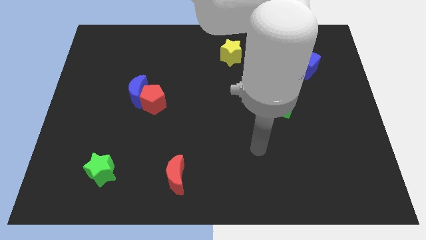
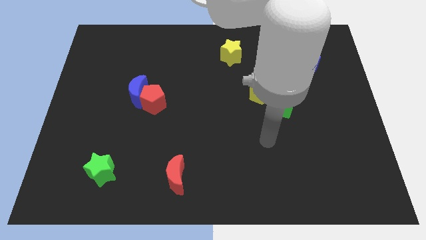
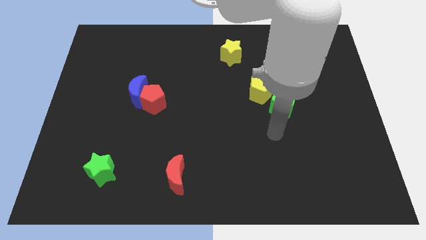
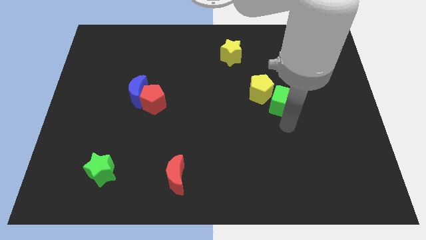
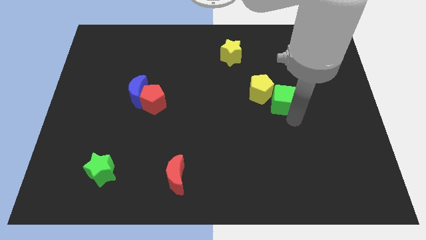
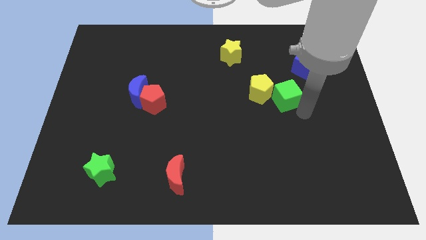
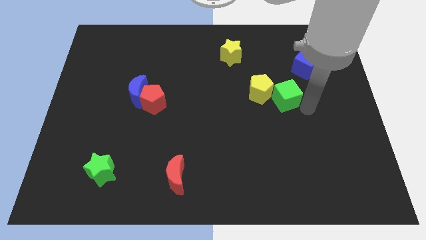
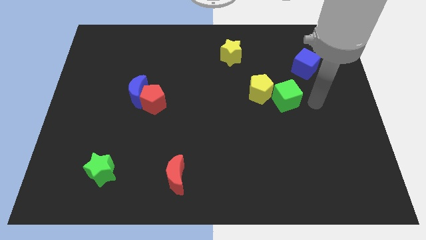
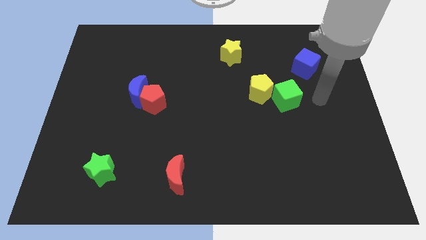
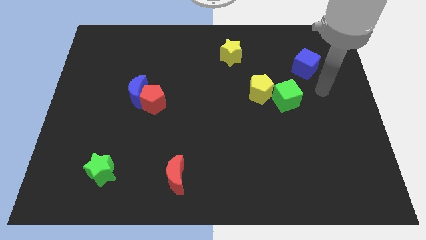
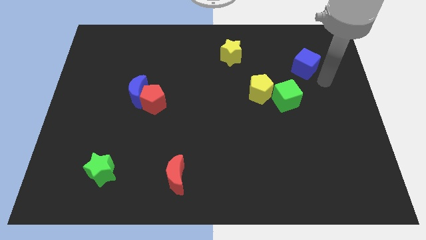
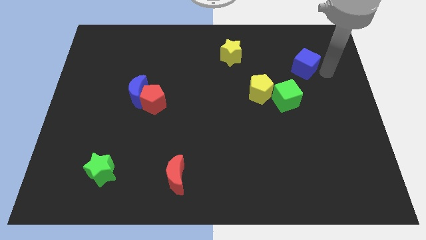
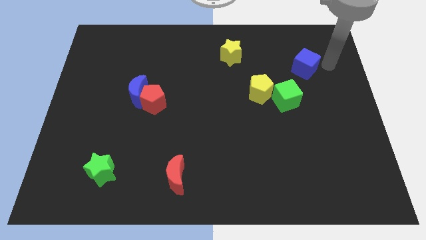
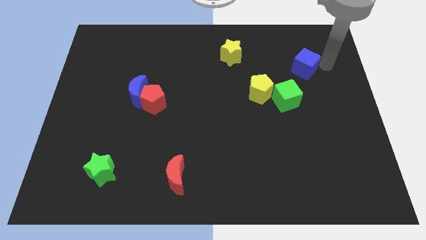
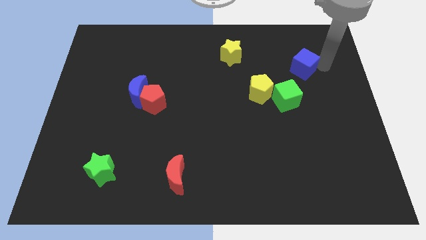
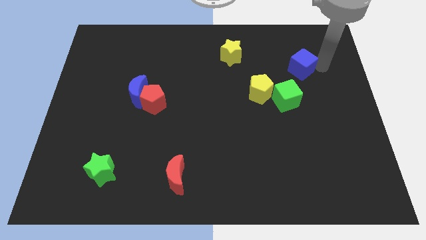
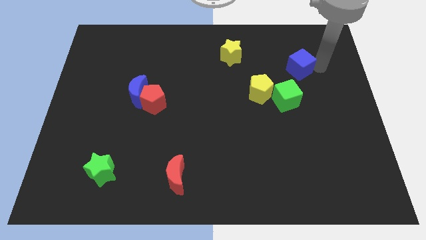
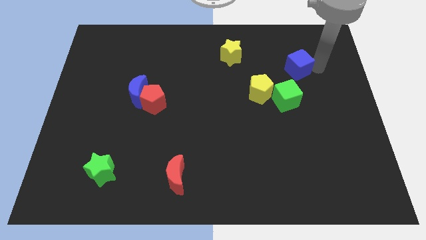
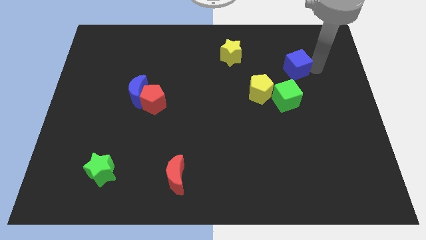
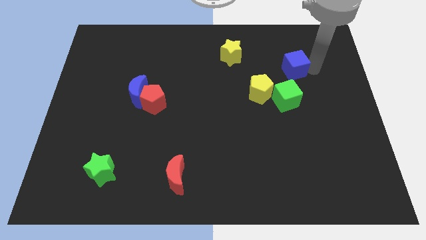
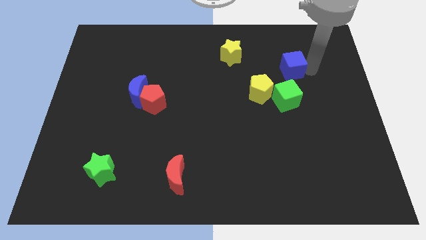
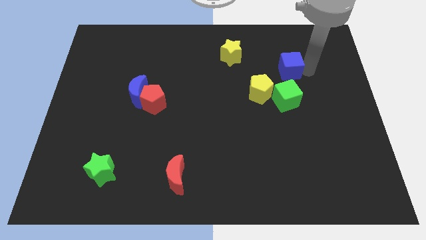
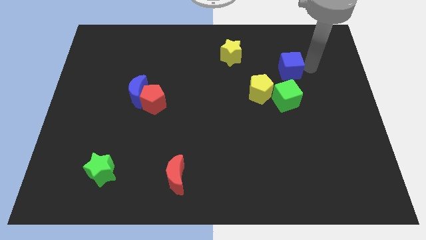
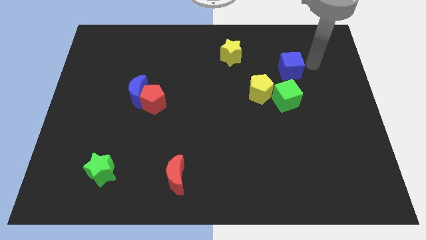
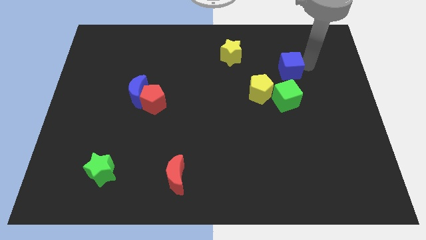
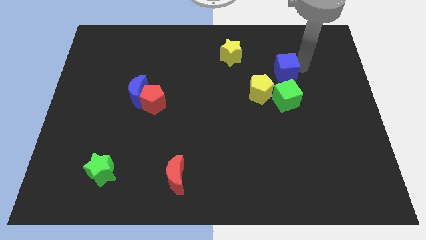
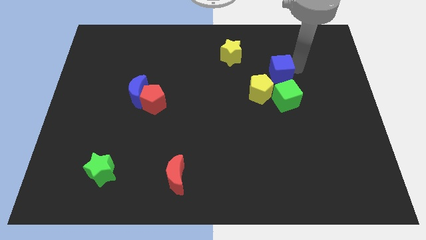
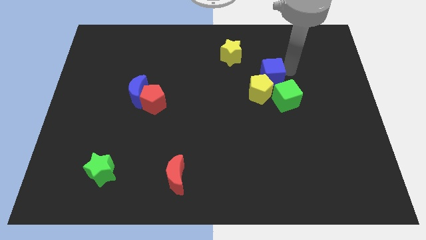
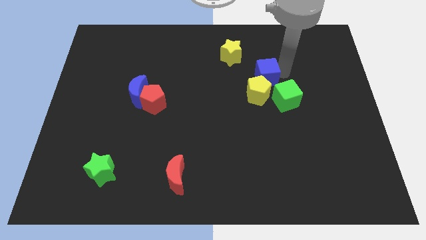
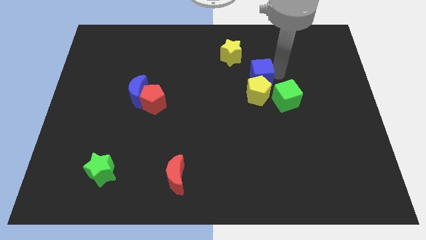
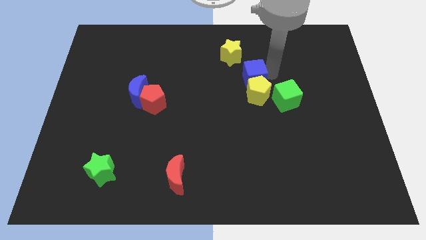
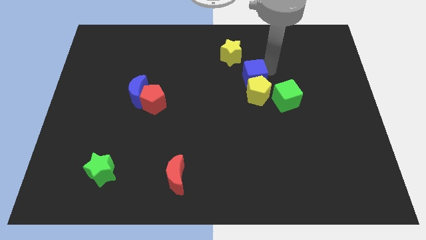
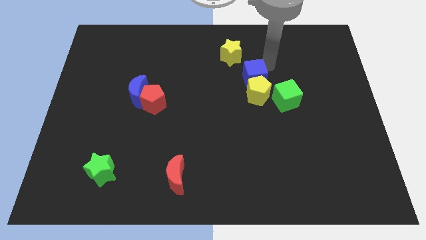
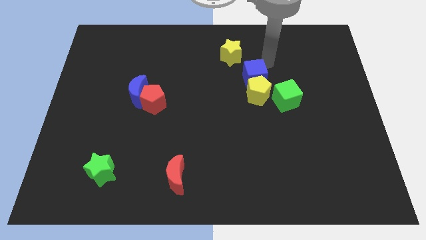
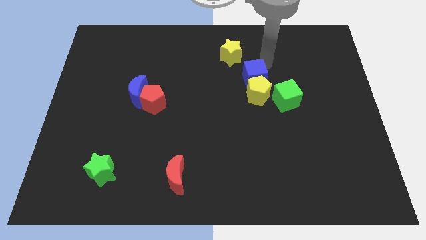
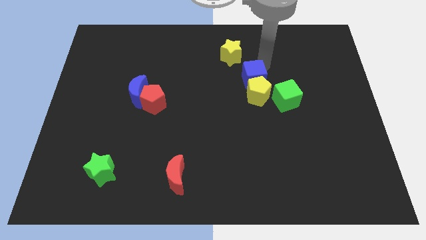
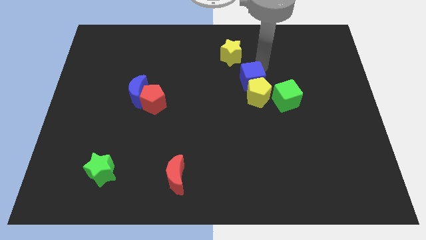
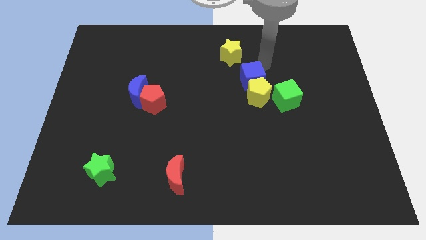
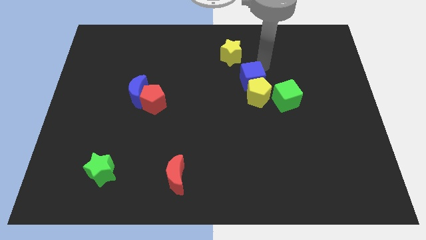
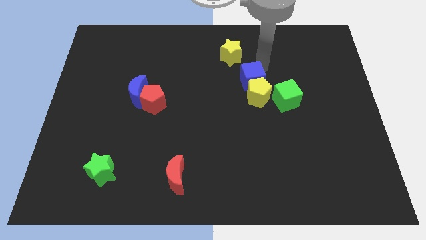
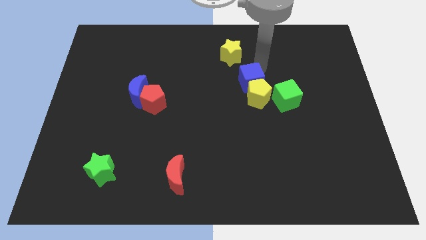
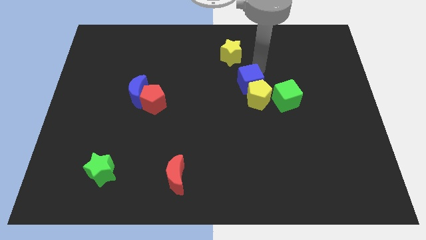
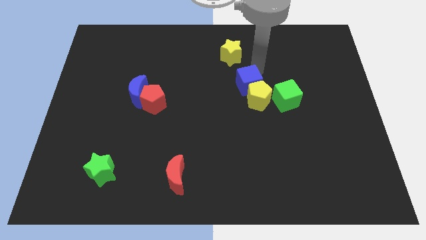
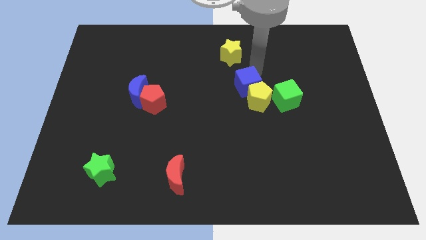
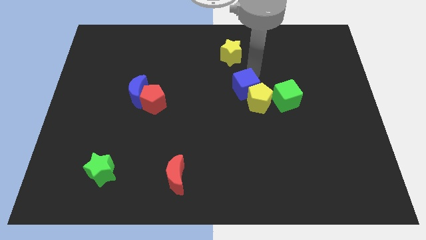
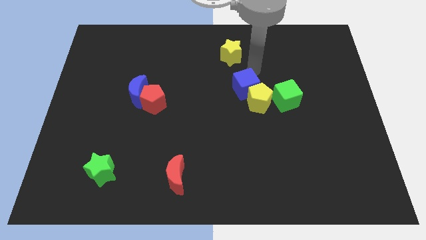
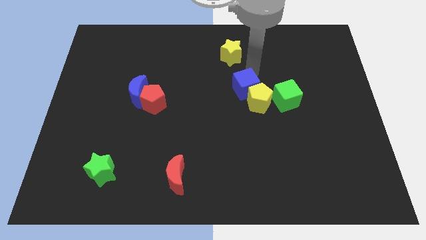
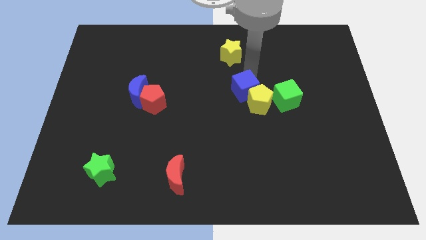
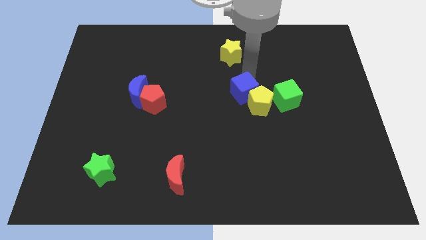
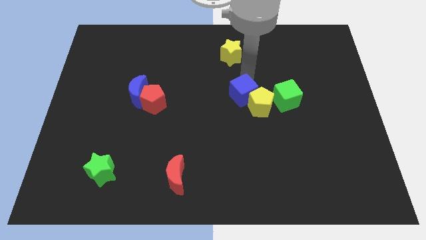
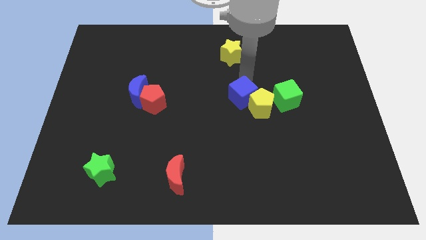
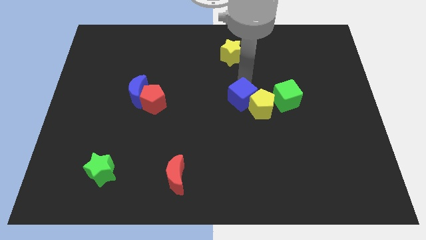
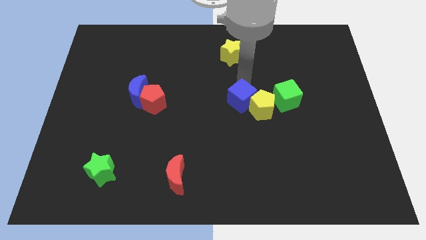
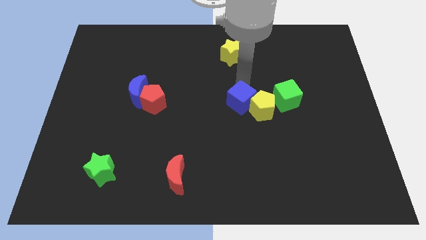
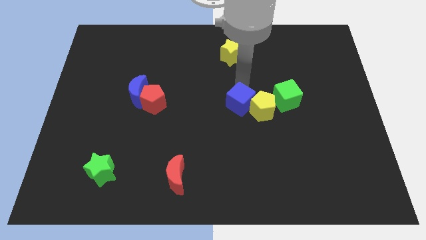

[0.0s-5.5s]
move the blue cube down and then to the left

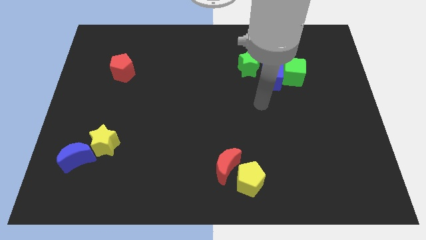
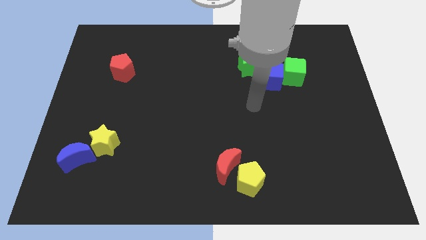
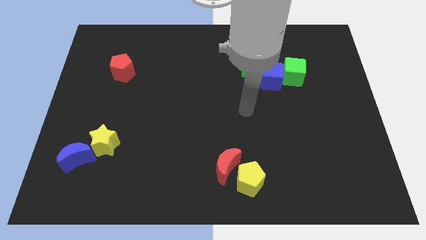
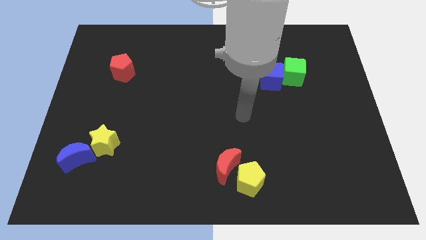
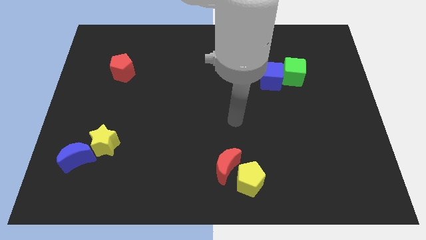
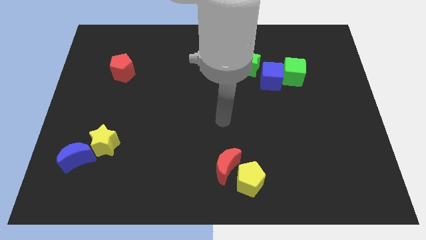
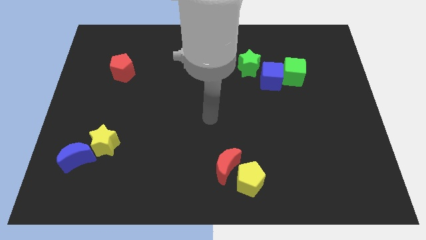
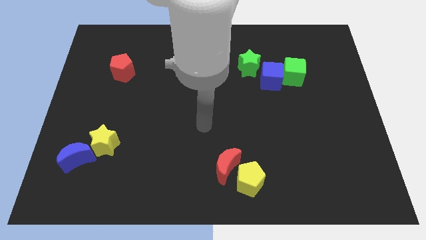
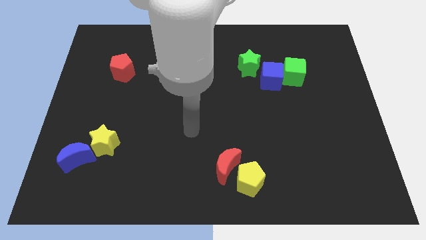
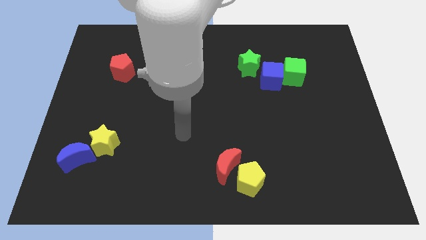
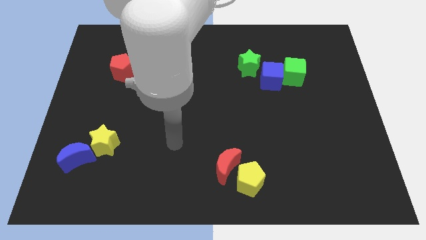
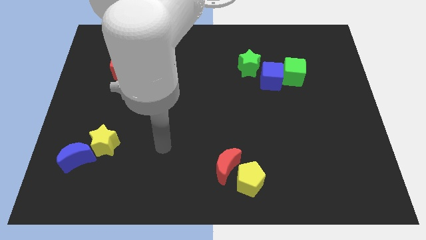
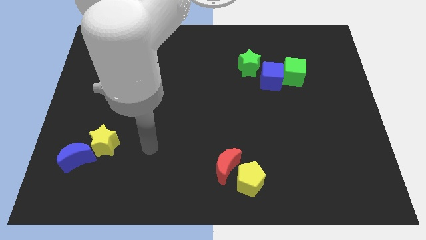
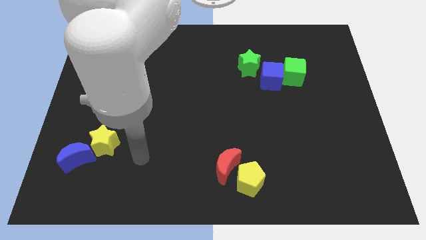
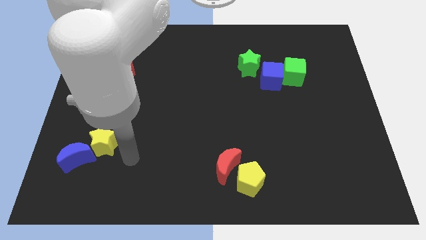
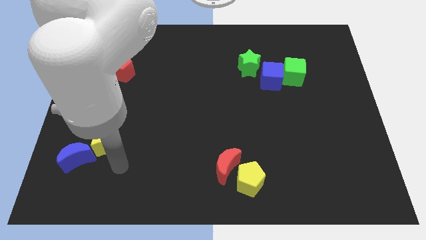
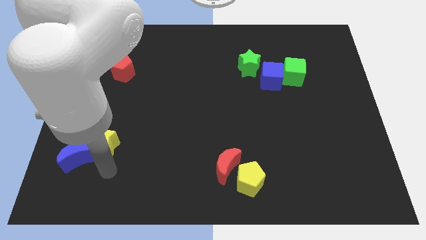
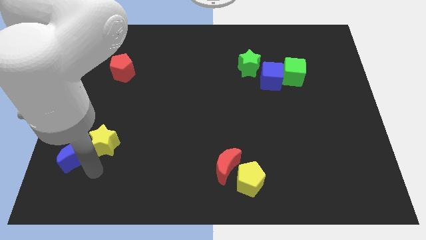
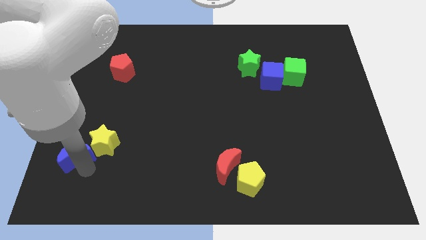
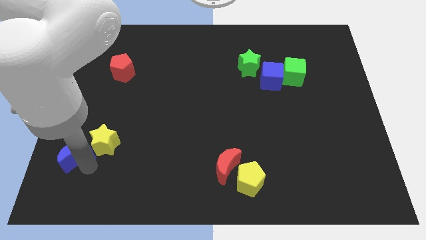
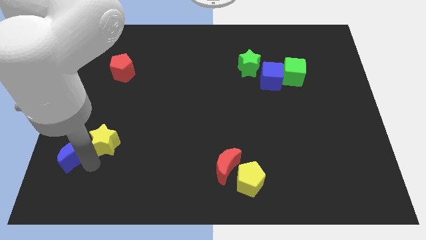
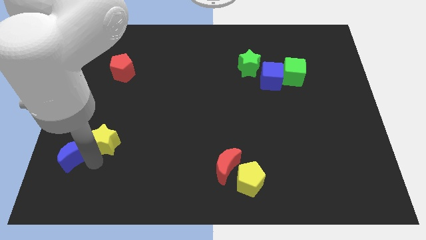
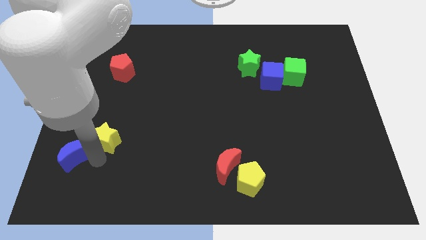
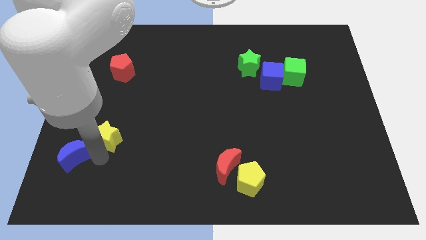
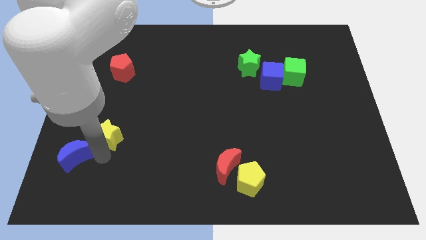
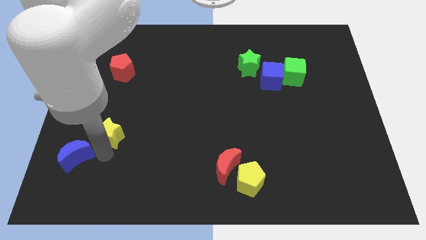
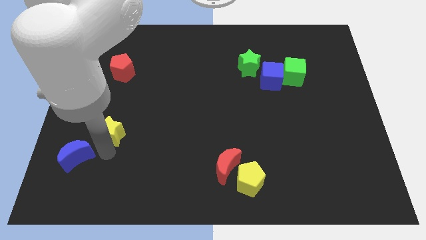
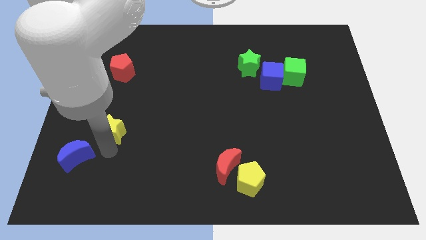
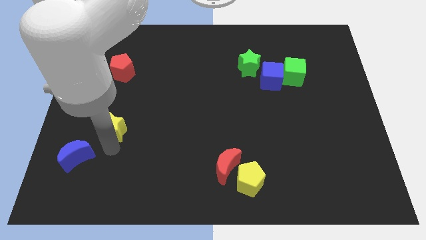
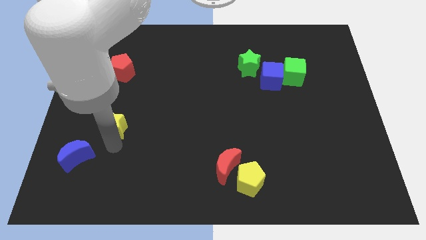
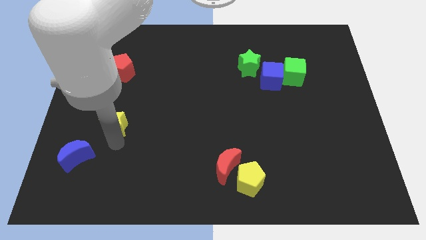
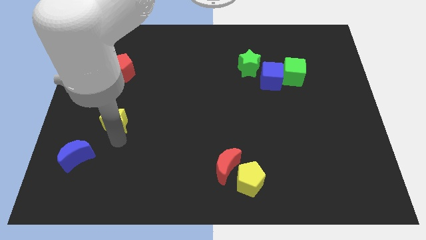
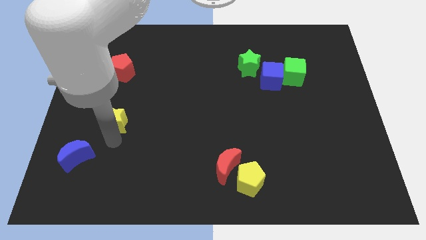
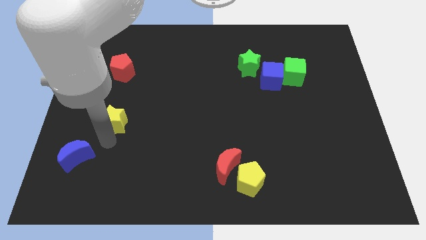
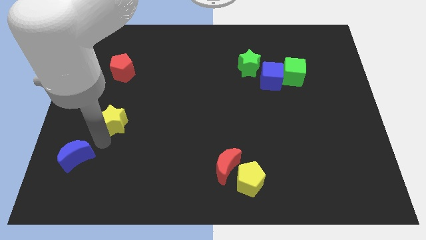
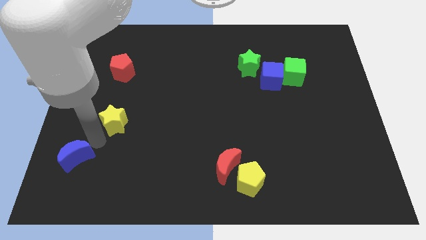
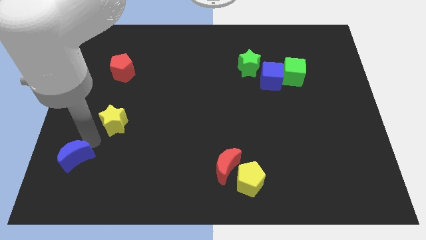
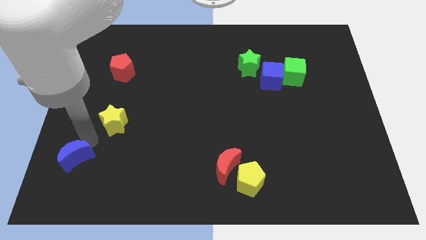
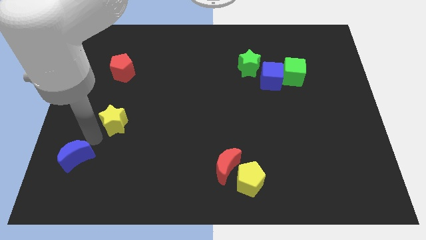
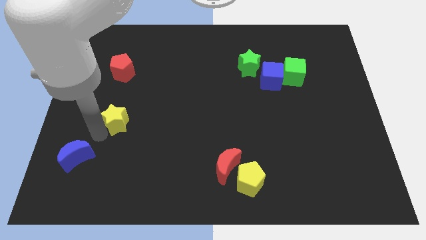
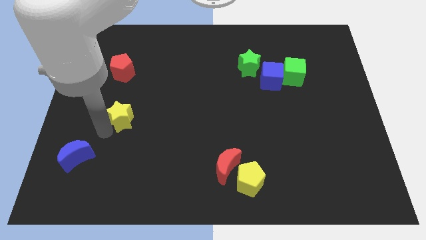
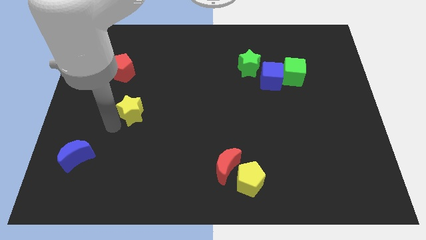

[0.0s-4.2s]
slightly slide the yellow star up and right
